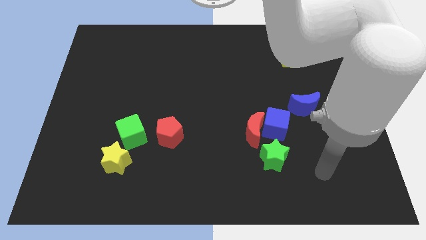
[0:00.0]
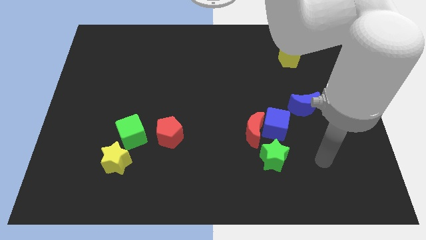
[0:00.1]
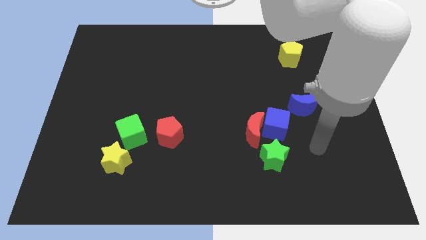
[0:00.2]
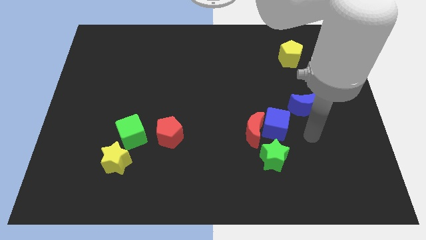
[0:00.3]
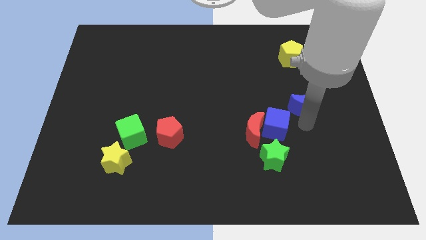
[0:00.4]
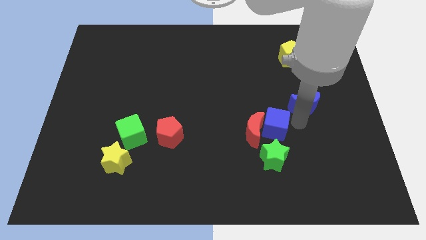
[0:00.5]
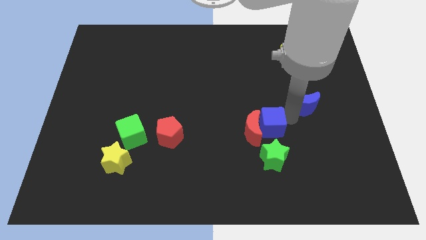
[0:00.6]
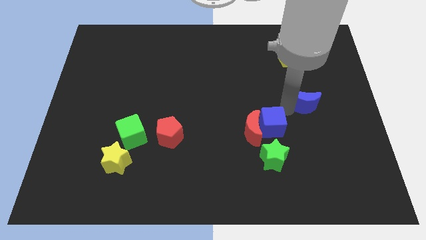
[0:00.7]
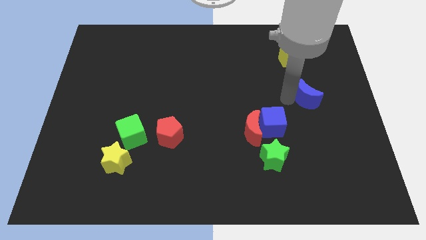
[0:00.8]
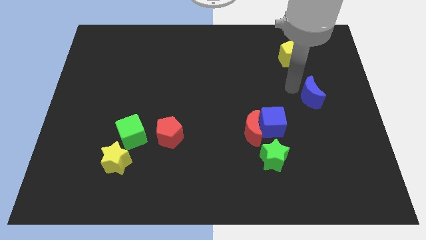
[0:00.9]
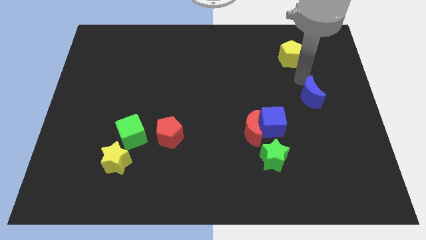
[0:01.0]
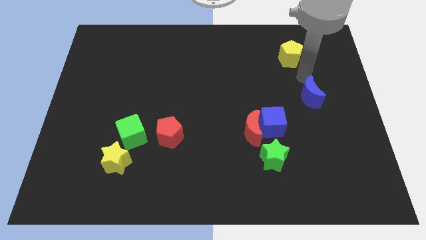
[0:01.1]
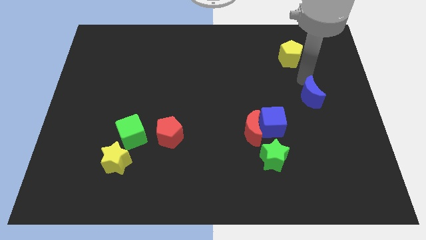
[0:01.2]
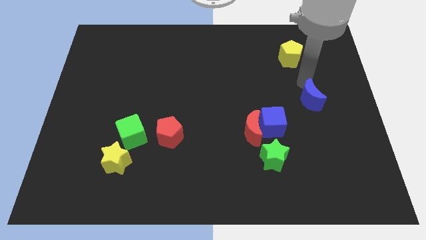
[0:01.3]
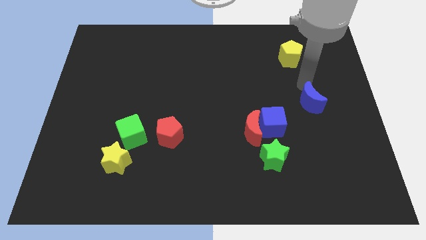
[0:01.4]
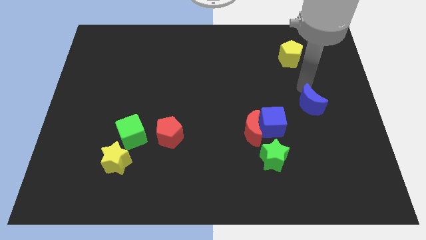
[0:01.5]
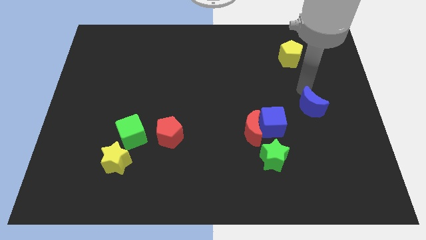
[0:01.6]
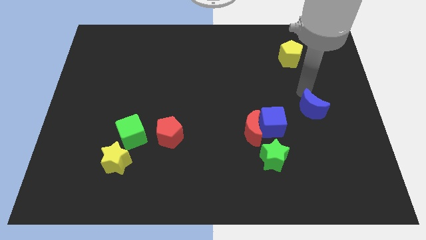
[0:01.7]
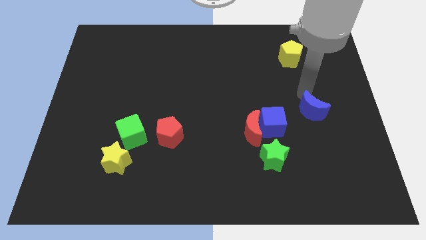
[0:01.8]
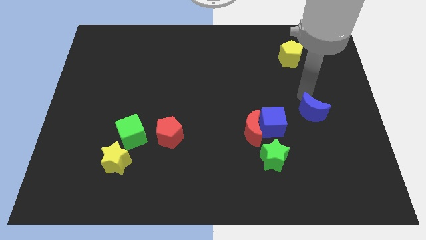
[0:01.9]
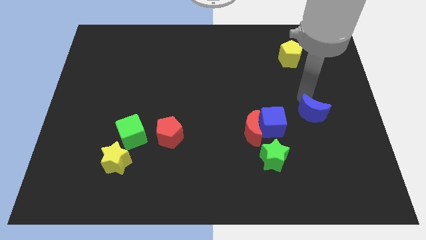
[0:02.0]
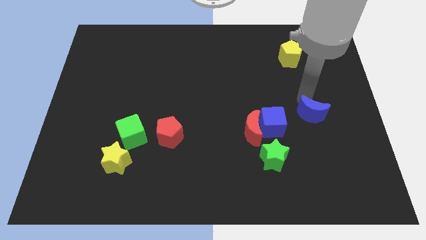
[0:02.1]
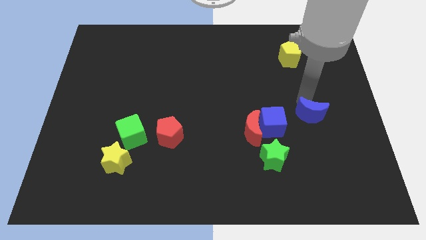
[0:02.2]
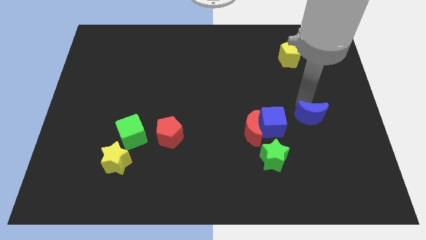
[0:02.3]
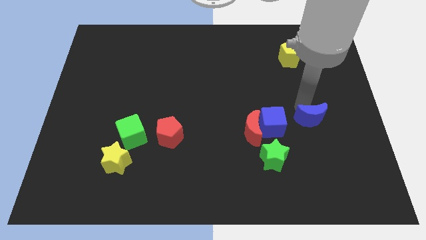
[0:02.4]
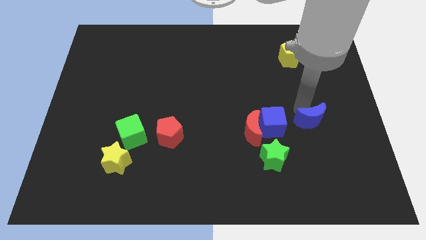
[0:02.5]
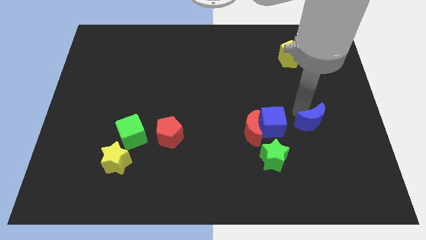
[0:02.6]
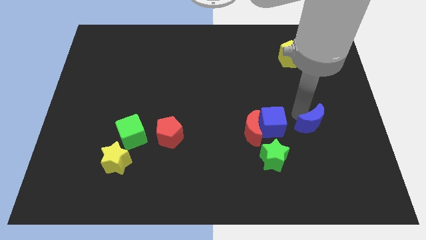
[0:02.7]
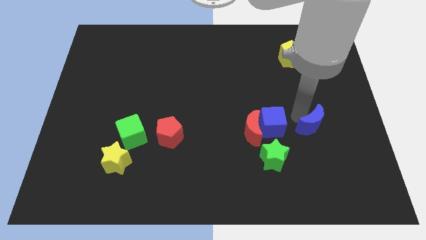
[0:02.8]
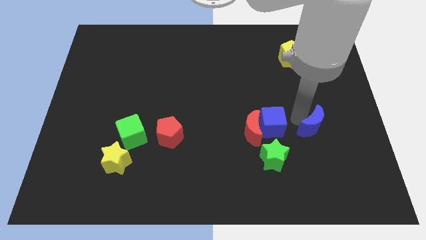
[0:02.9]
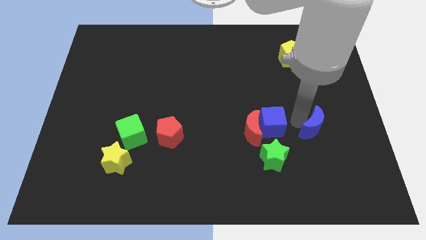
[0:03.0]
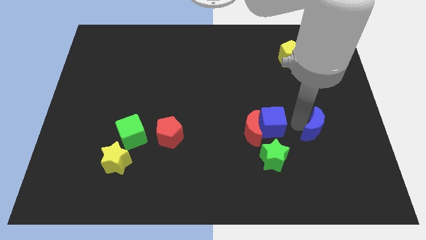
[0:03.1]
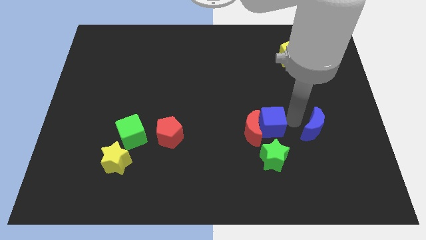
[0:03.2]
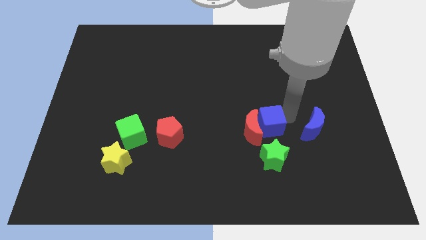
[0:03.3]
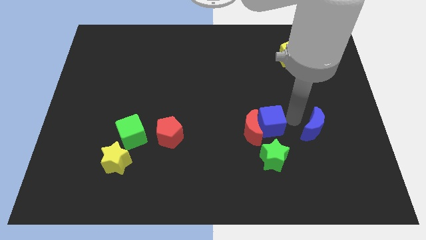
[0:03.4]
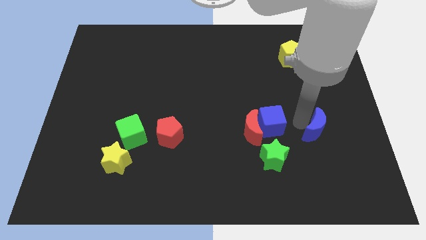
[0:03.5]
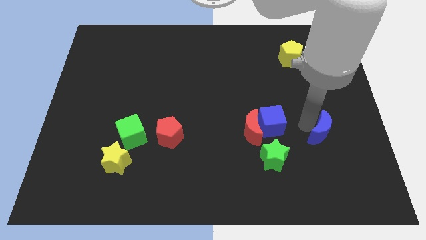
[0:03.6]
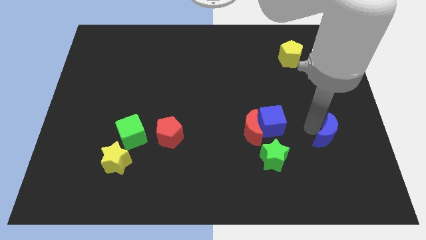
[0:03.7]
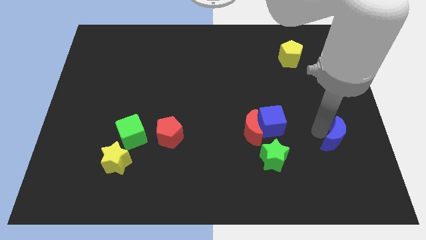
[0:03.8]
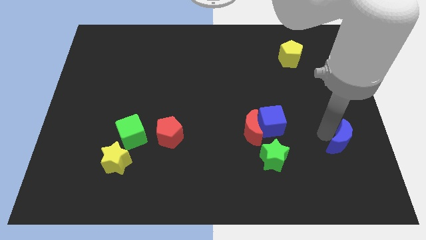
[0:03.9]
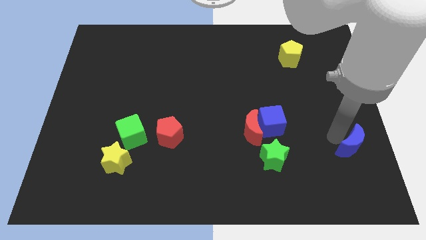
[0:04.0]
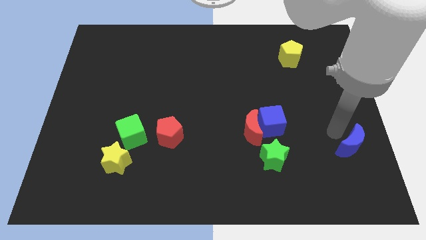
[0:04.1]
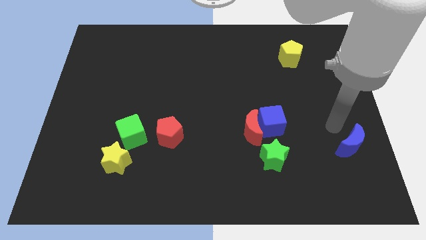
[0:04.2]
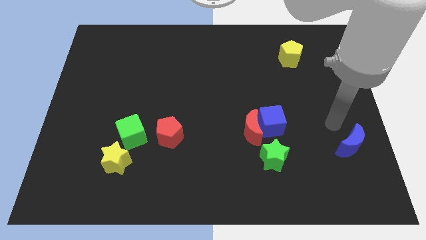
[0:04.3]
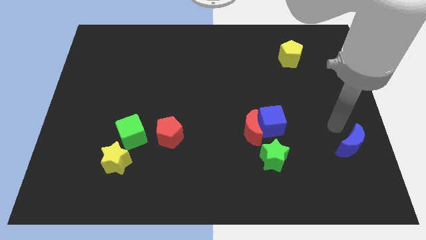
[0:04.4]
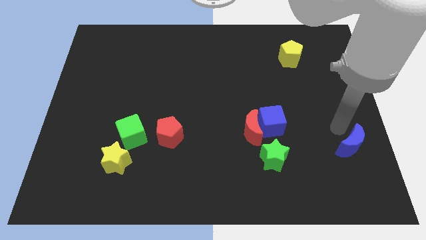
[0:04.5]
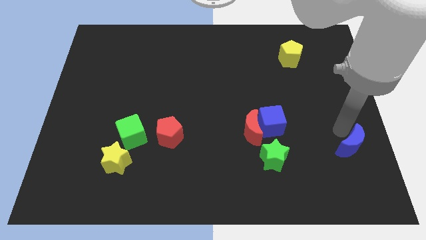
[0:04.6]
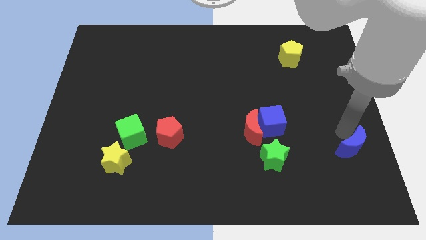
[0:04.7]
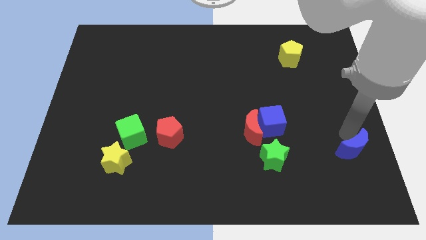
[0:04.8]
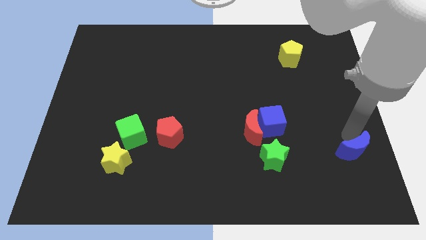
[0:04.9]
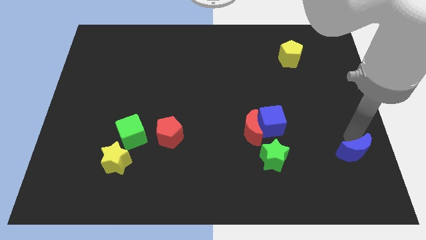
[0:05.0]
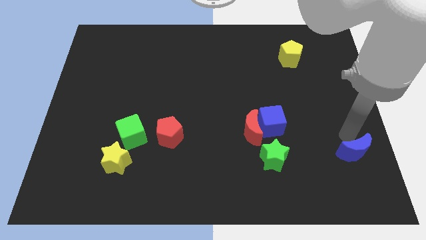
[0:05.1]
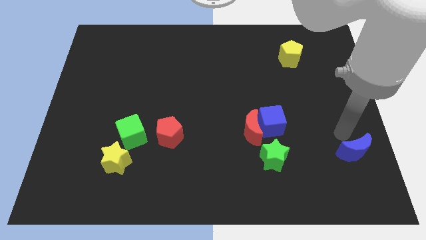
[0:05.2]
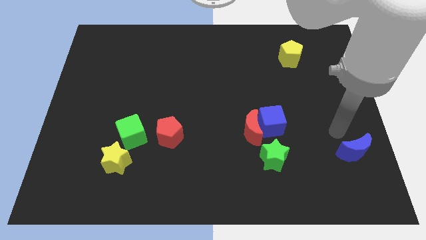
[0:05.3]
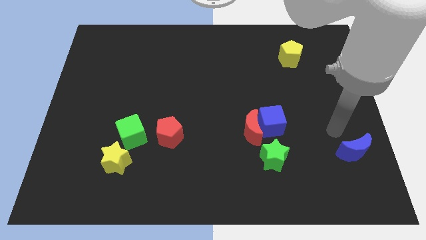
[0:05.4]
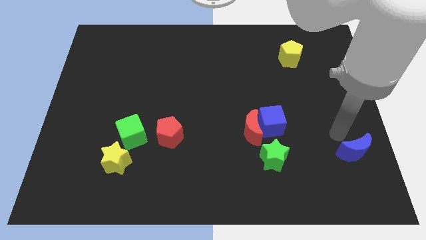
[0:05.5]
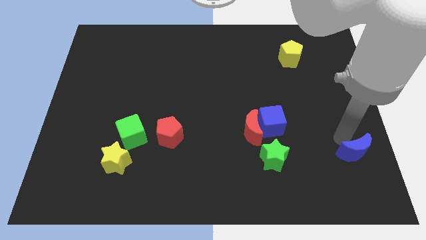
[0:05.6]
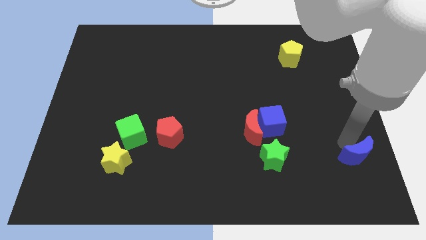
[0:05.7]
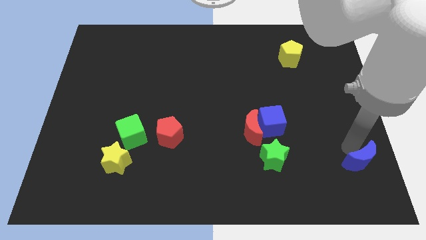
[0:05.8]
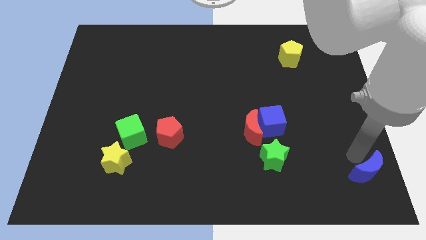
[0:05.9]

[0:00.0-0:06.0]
move the blue moon to the bottom right corner
